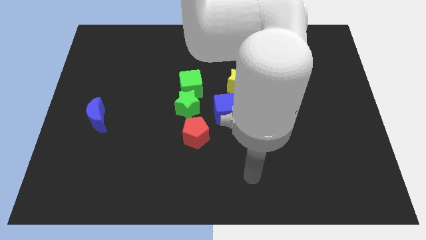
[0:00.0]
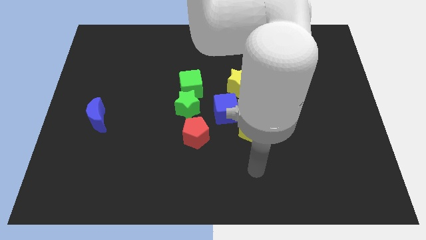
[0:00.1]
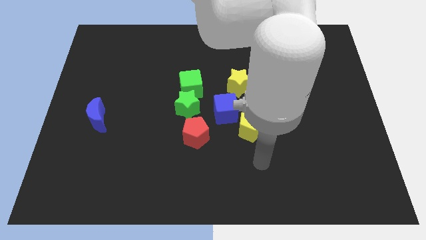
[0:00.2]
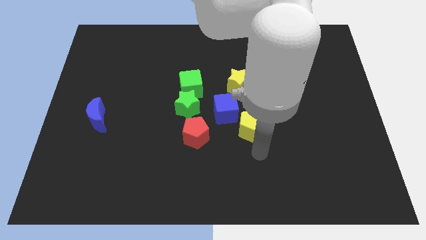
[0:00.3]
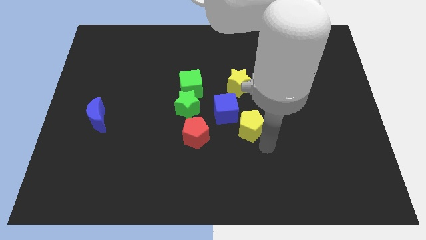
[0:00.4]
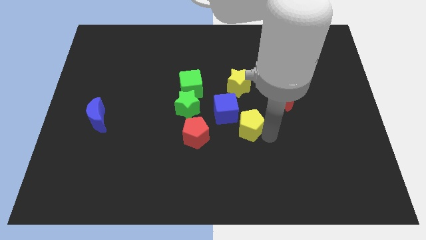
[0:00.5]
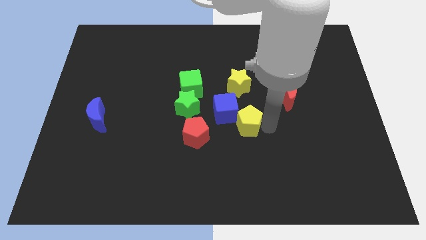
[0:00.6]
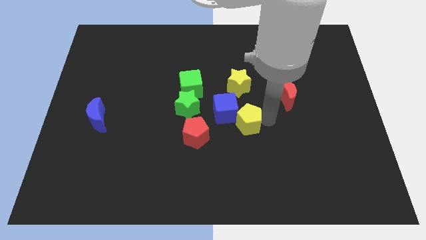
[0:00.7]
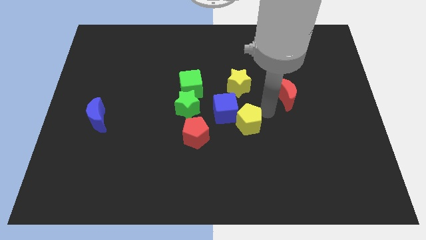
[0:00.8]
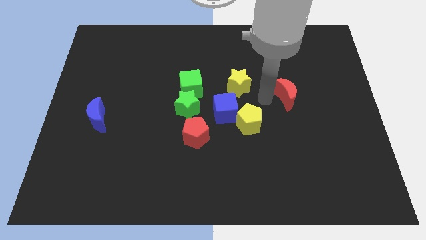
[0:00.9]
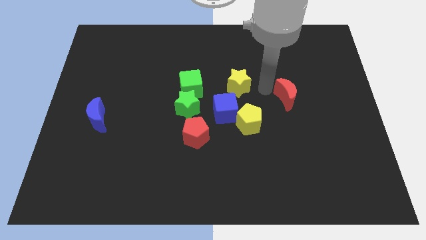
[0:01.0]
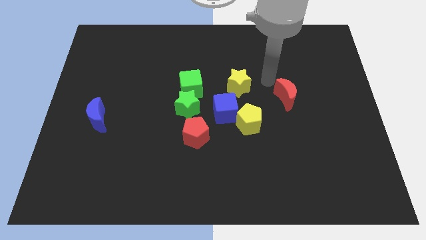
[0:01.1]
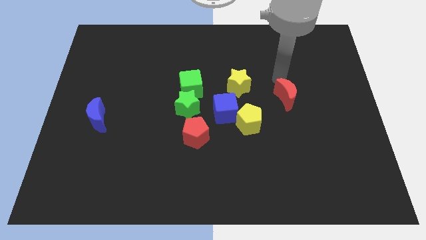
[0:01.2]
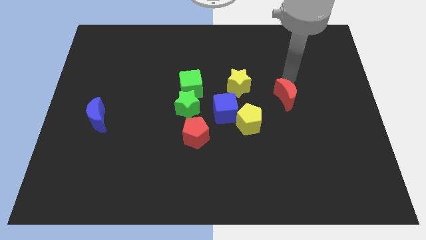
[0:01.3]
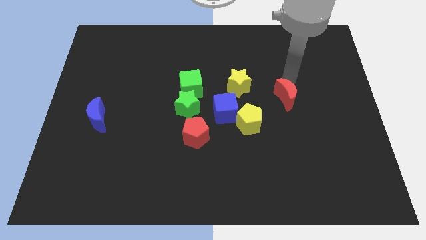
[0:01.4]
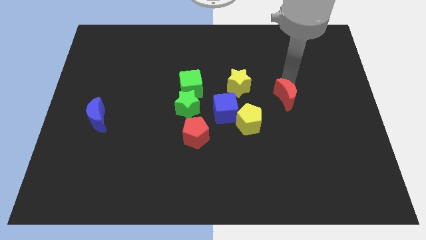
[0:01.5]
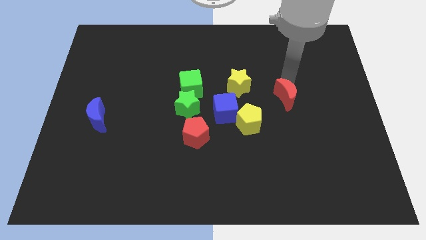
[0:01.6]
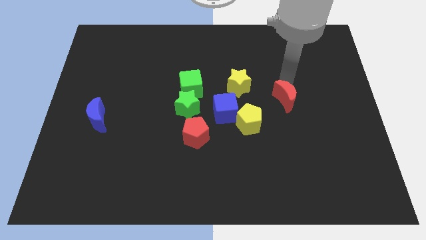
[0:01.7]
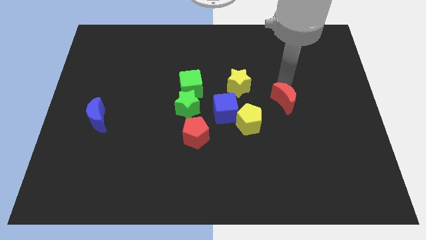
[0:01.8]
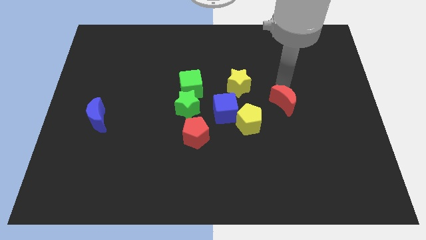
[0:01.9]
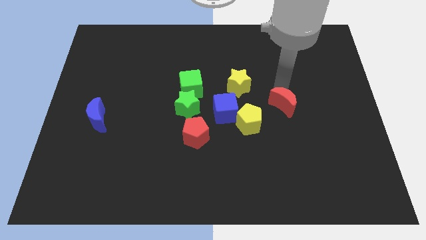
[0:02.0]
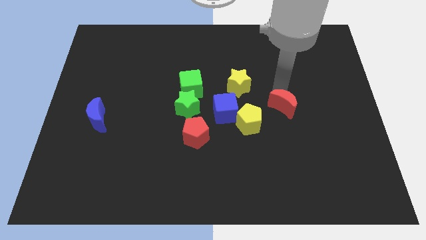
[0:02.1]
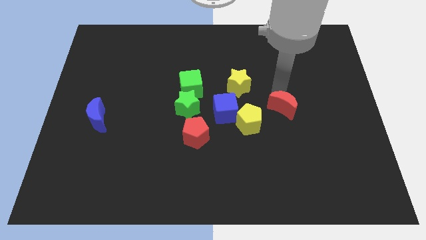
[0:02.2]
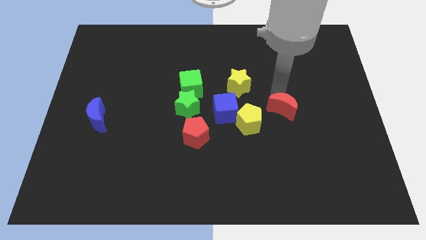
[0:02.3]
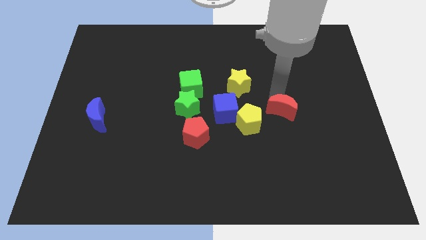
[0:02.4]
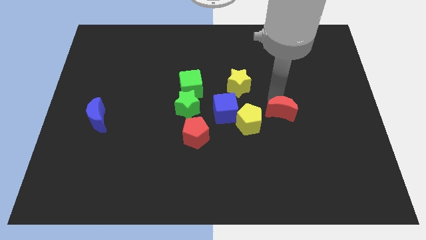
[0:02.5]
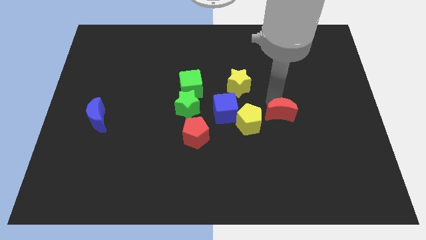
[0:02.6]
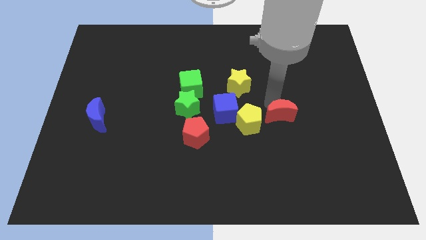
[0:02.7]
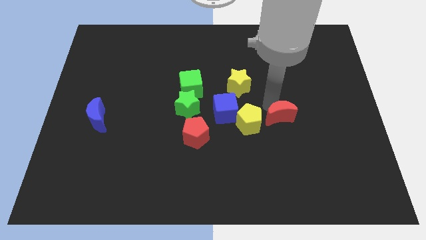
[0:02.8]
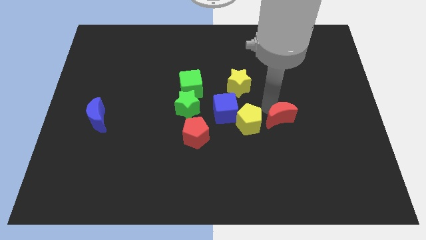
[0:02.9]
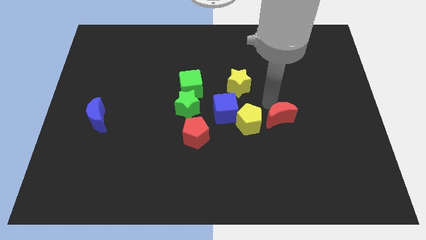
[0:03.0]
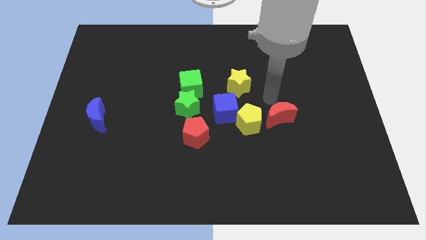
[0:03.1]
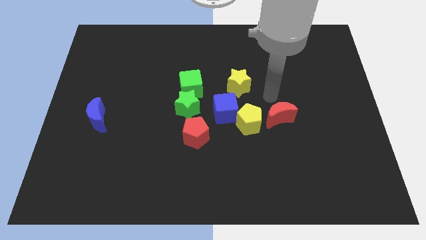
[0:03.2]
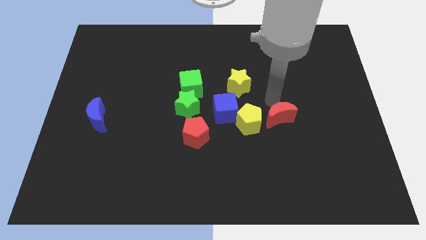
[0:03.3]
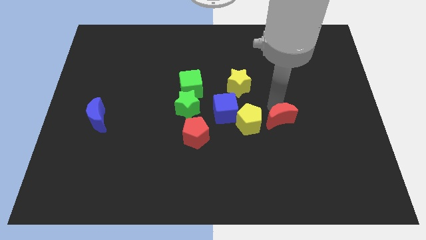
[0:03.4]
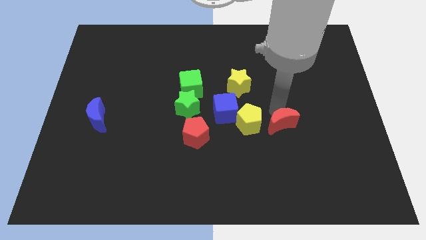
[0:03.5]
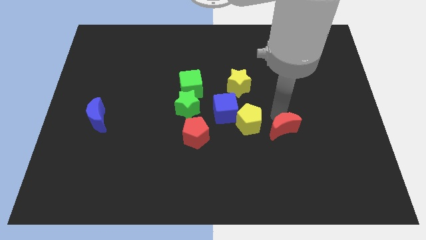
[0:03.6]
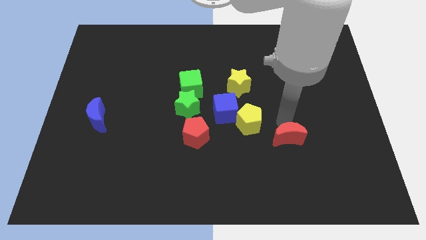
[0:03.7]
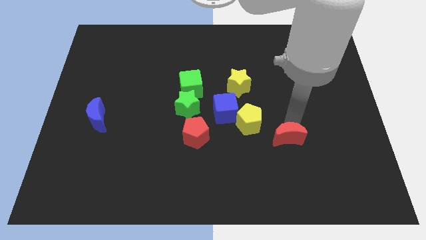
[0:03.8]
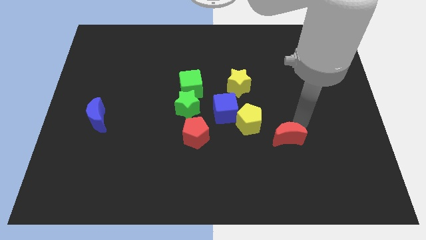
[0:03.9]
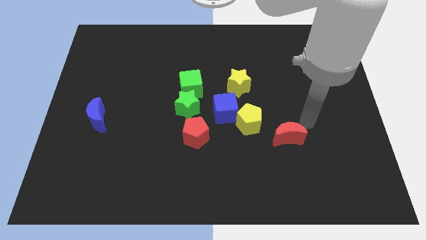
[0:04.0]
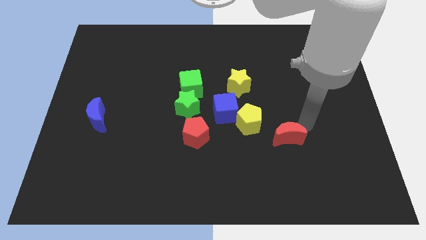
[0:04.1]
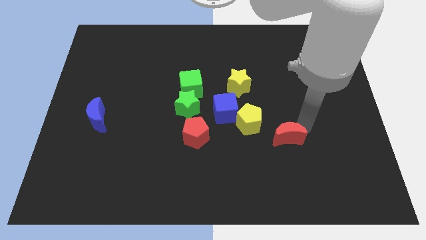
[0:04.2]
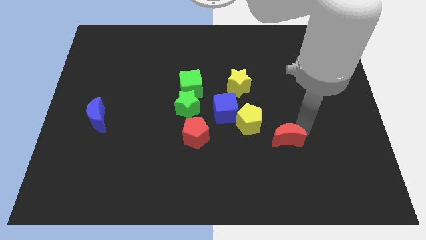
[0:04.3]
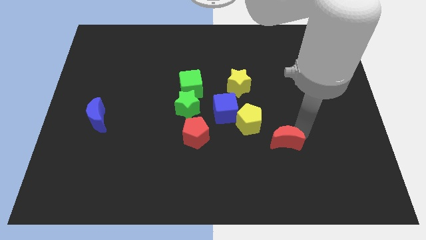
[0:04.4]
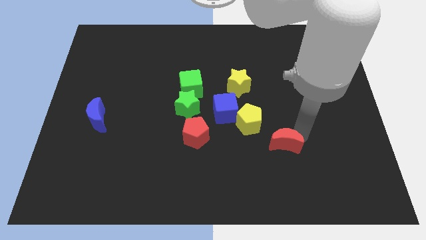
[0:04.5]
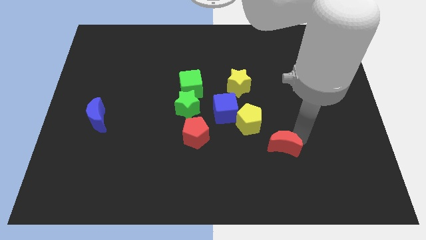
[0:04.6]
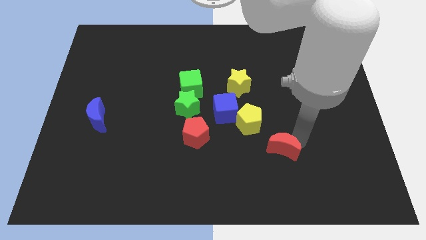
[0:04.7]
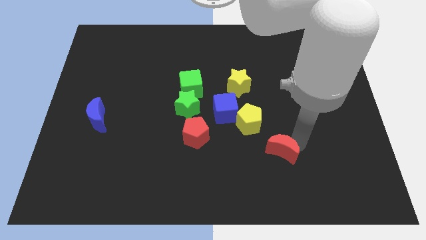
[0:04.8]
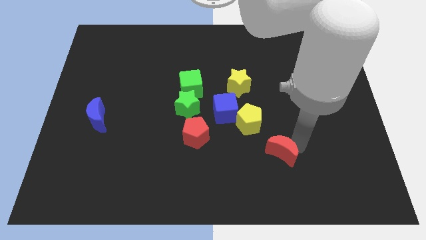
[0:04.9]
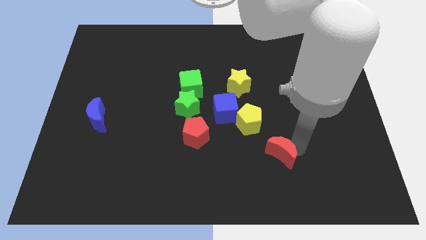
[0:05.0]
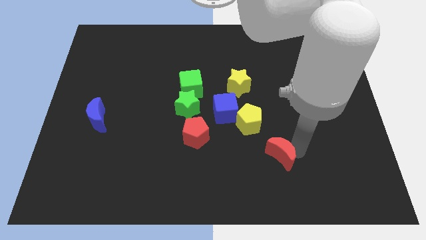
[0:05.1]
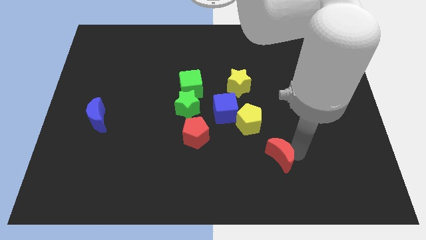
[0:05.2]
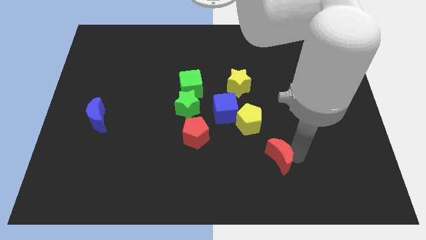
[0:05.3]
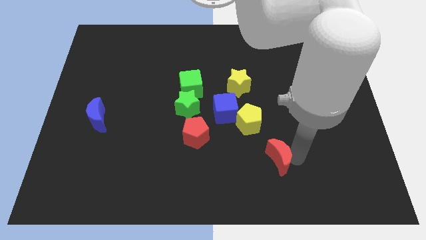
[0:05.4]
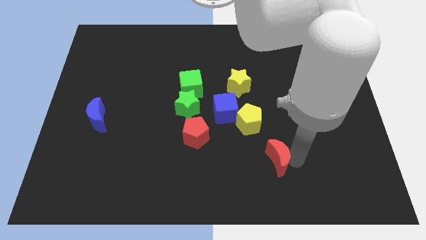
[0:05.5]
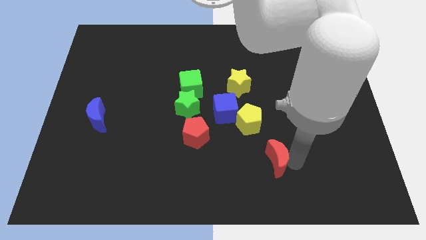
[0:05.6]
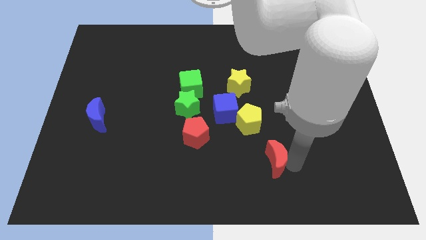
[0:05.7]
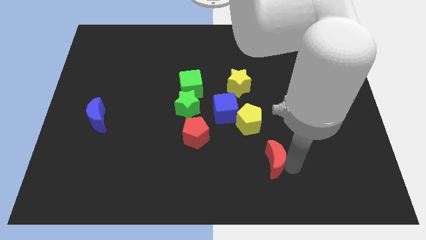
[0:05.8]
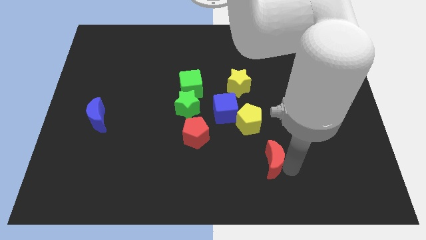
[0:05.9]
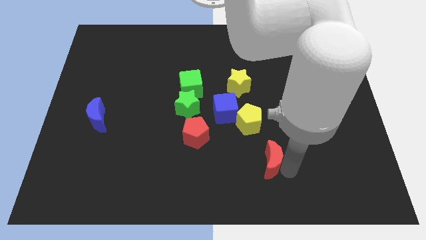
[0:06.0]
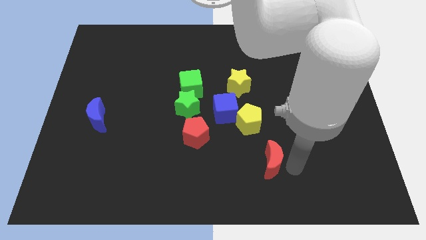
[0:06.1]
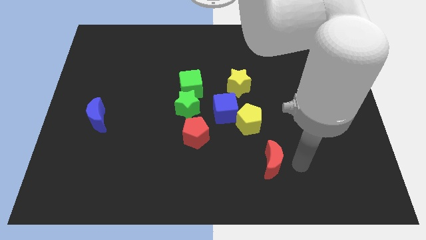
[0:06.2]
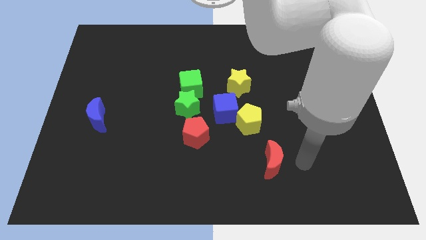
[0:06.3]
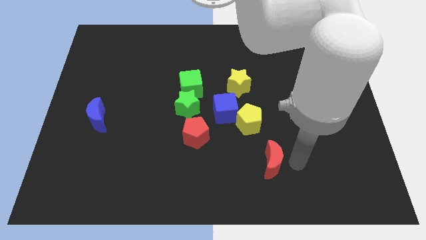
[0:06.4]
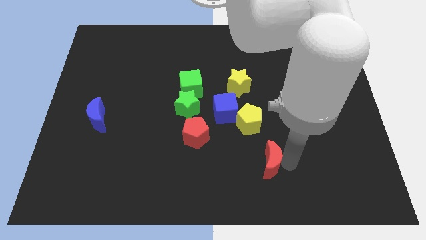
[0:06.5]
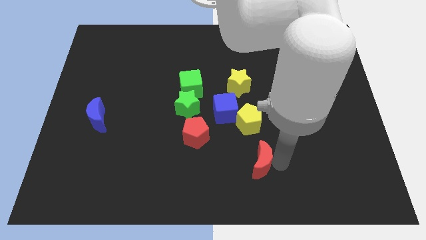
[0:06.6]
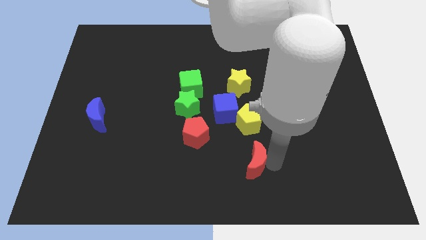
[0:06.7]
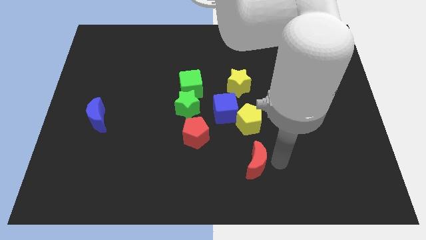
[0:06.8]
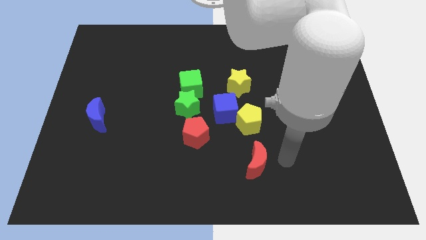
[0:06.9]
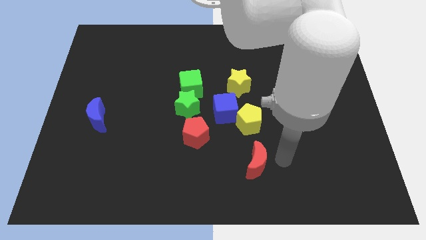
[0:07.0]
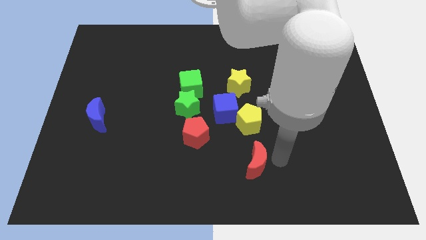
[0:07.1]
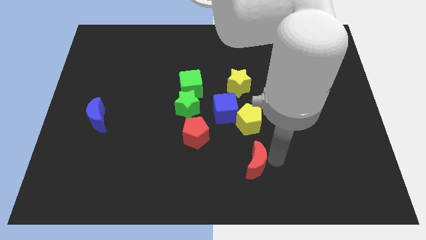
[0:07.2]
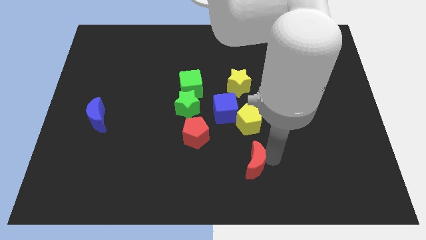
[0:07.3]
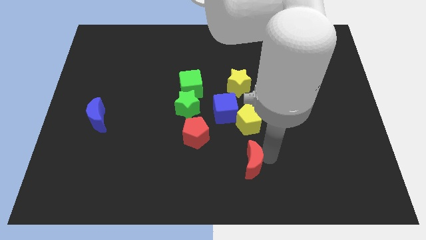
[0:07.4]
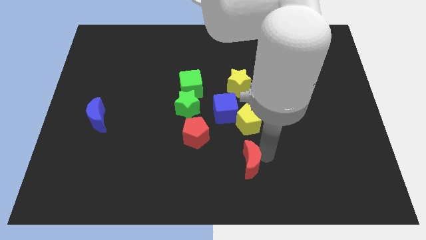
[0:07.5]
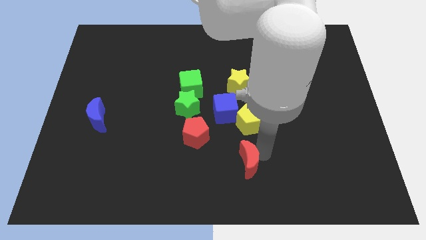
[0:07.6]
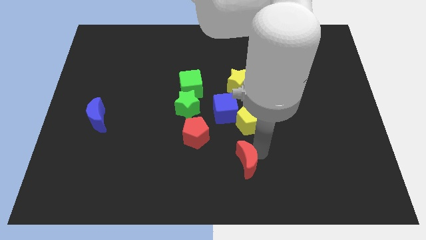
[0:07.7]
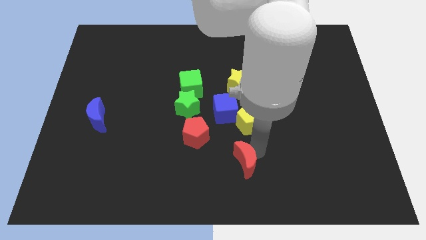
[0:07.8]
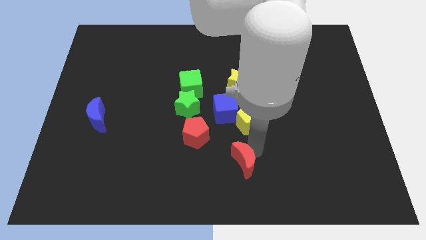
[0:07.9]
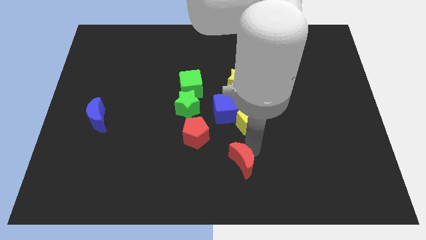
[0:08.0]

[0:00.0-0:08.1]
move the red moon down and left
